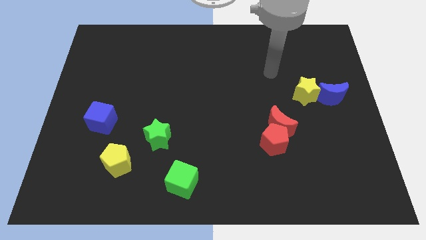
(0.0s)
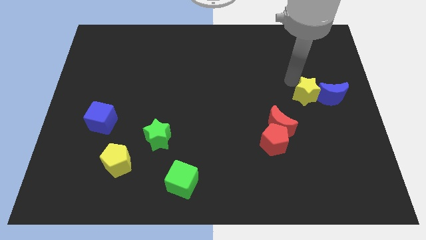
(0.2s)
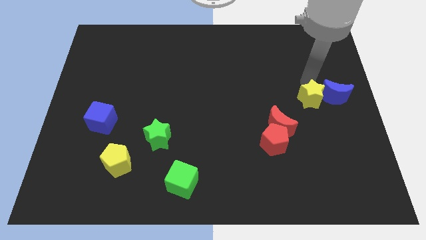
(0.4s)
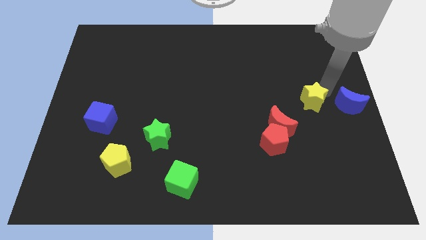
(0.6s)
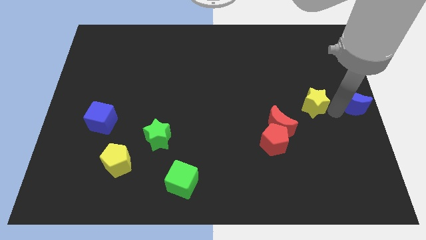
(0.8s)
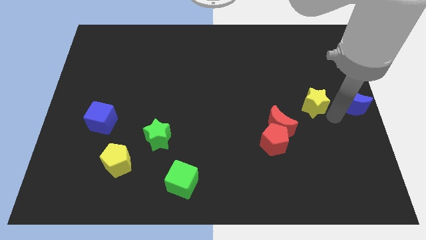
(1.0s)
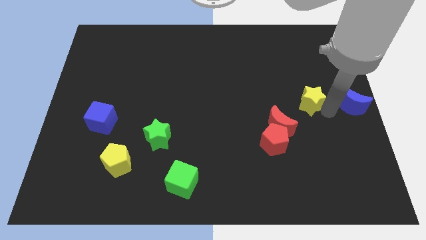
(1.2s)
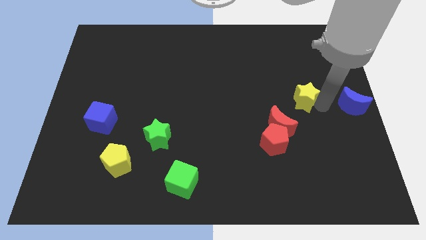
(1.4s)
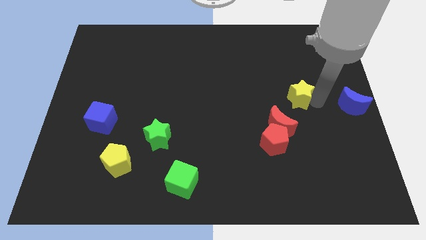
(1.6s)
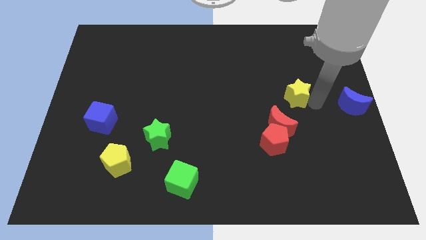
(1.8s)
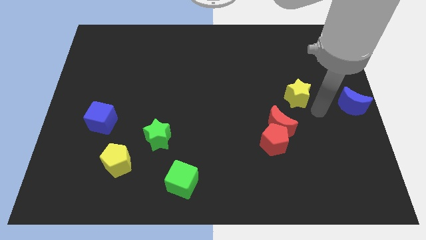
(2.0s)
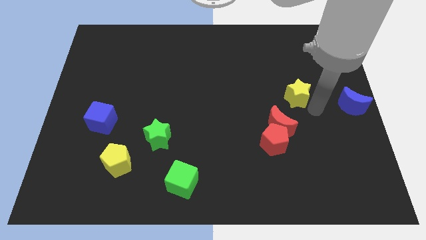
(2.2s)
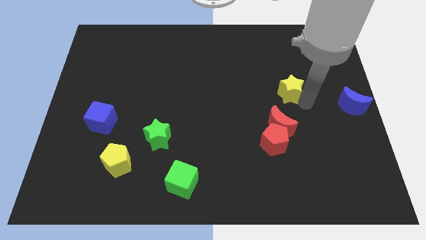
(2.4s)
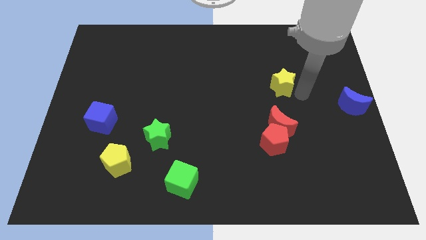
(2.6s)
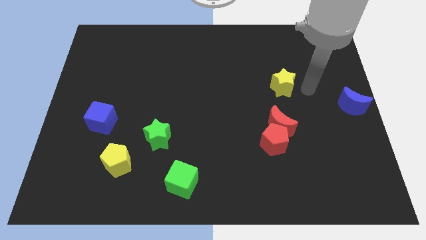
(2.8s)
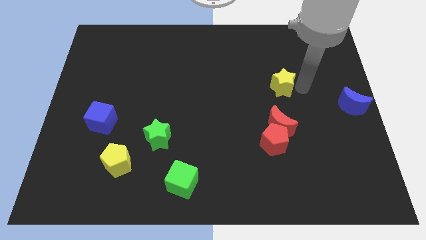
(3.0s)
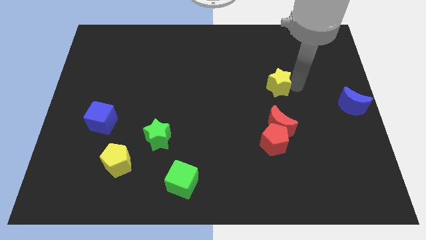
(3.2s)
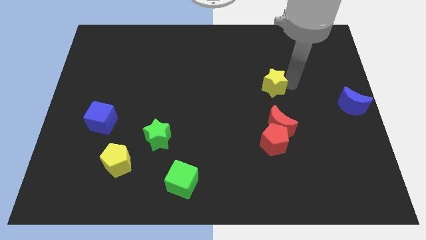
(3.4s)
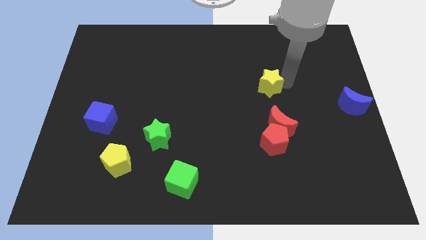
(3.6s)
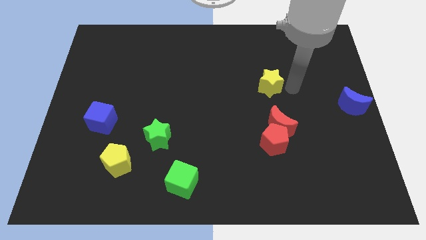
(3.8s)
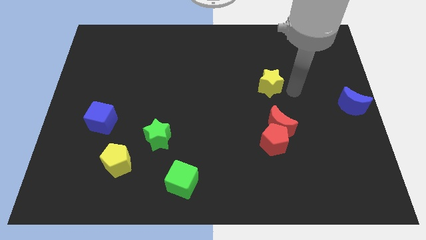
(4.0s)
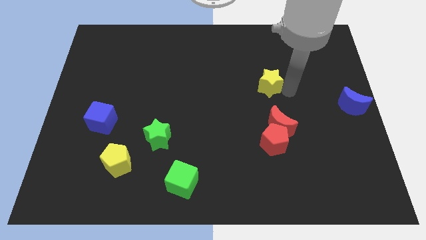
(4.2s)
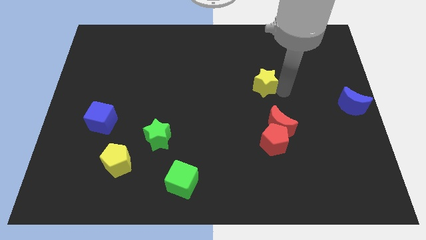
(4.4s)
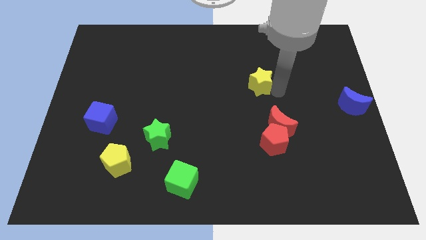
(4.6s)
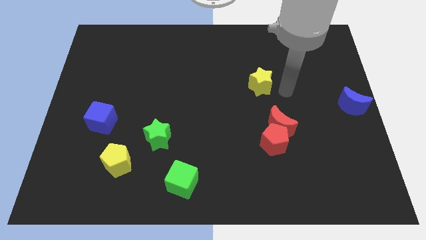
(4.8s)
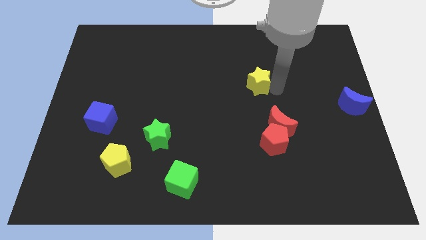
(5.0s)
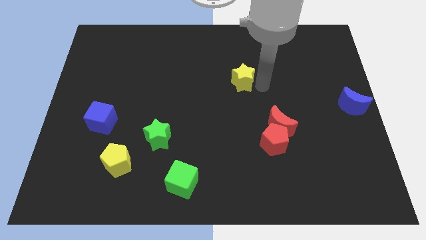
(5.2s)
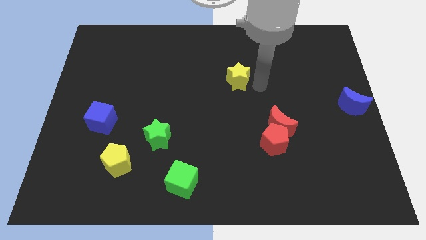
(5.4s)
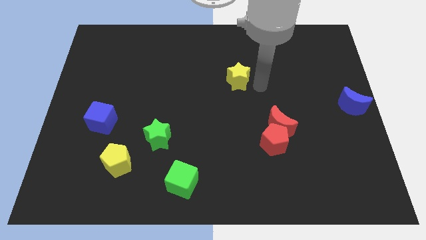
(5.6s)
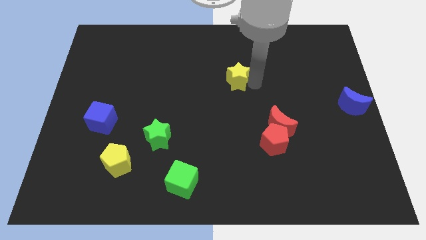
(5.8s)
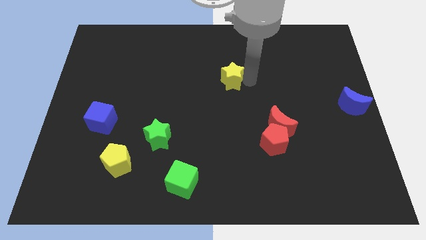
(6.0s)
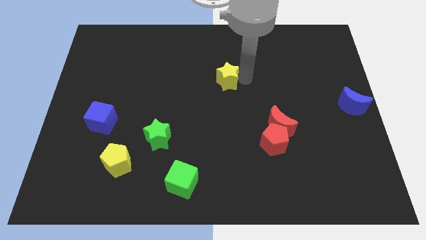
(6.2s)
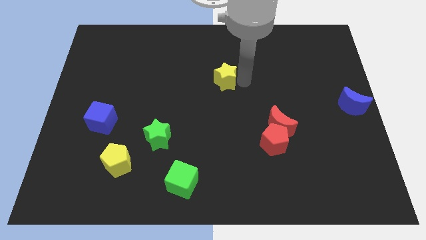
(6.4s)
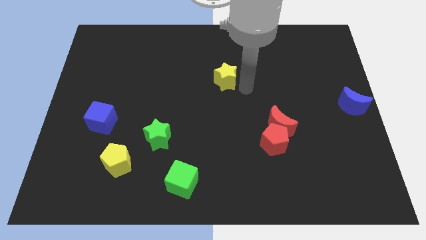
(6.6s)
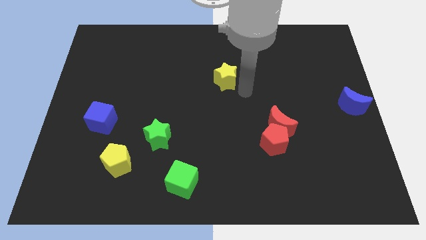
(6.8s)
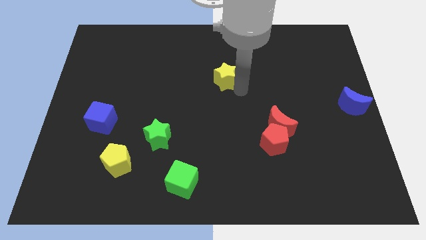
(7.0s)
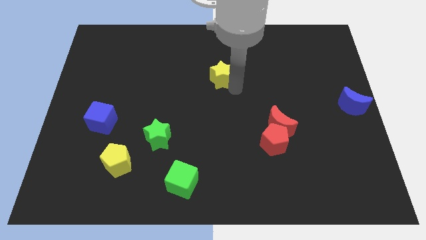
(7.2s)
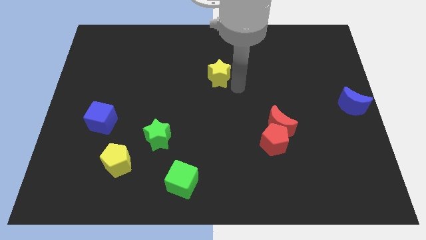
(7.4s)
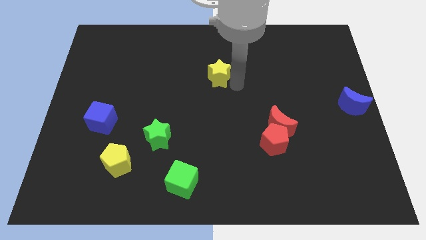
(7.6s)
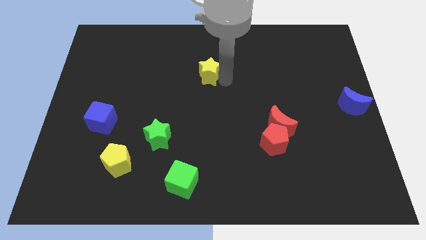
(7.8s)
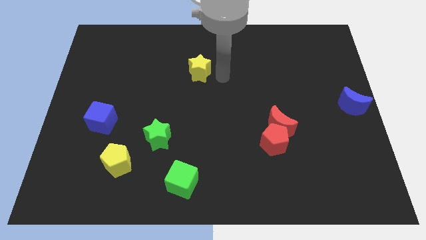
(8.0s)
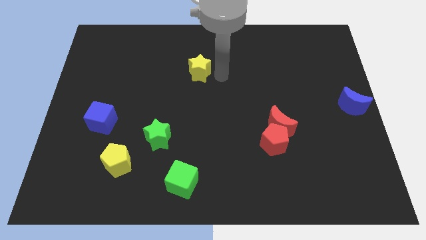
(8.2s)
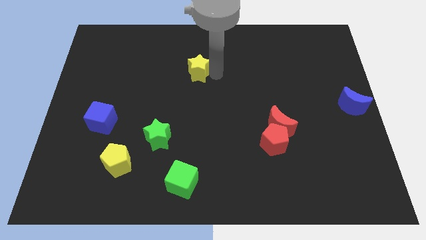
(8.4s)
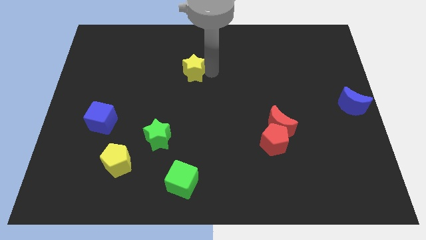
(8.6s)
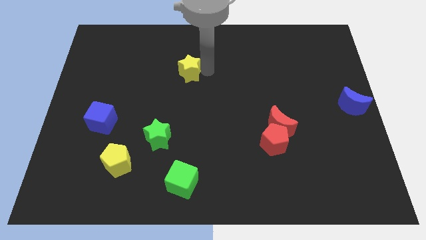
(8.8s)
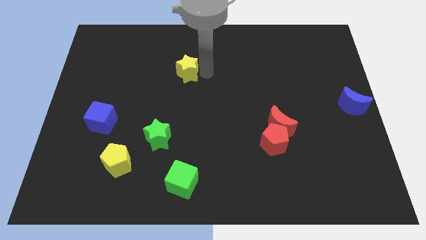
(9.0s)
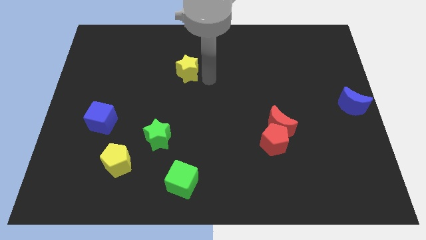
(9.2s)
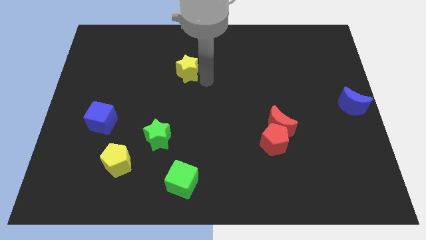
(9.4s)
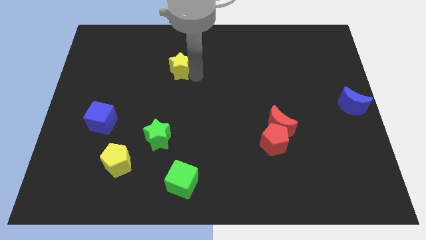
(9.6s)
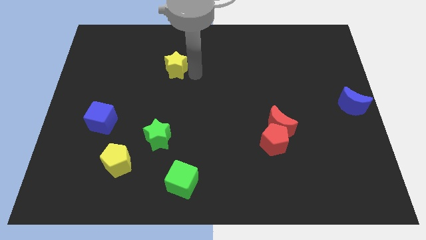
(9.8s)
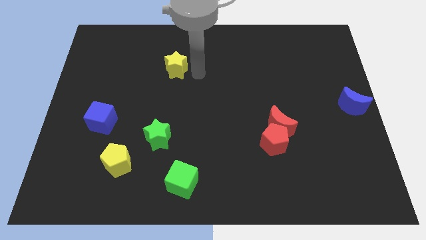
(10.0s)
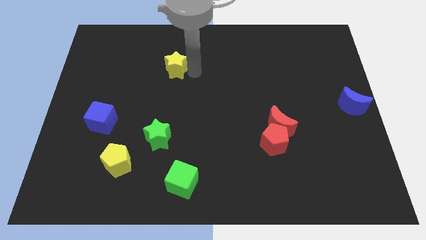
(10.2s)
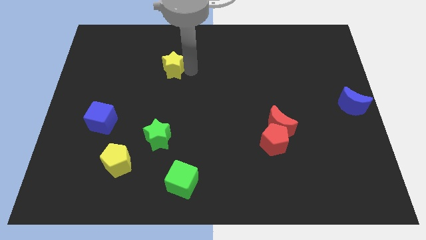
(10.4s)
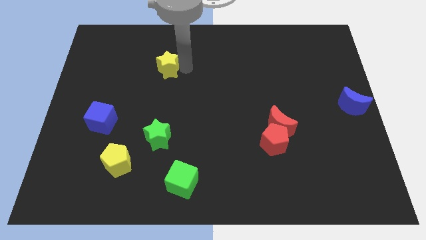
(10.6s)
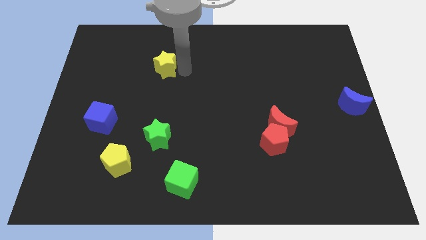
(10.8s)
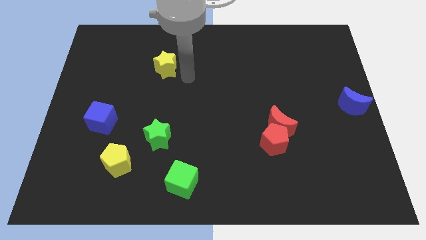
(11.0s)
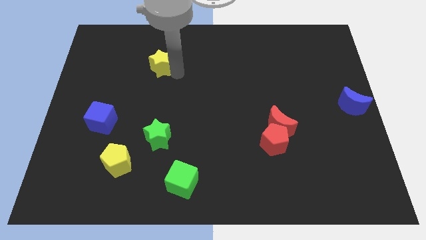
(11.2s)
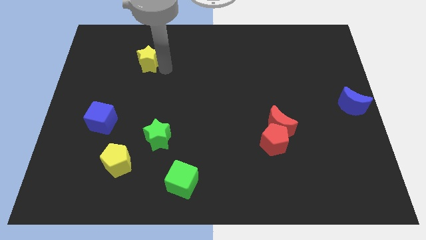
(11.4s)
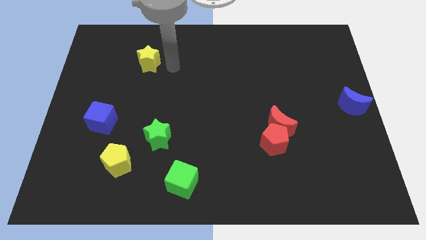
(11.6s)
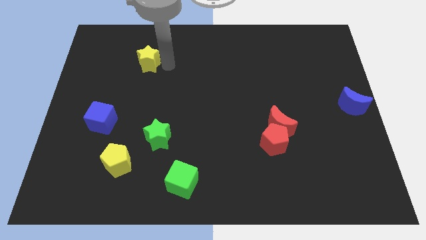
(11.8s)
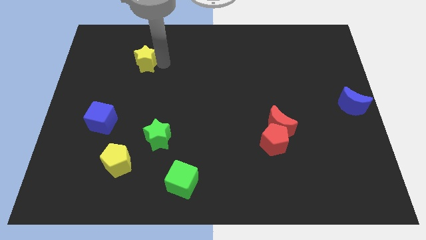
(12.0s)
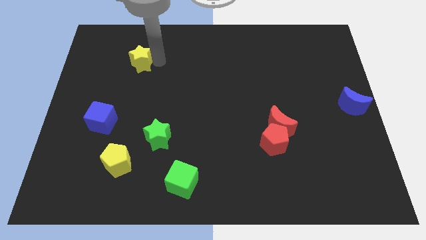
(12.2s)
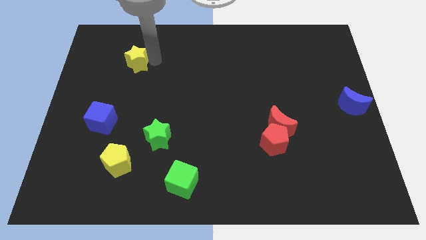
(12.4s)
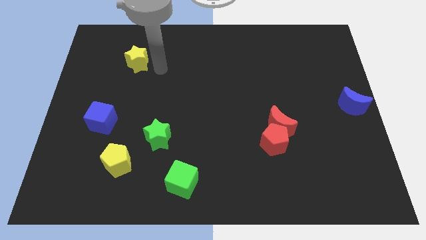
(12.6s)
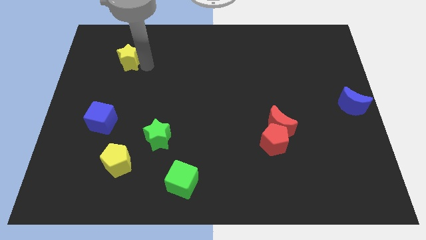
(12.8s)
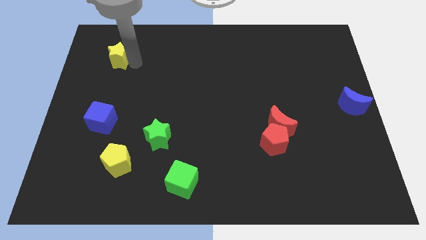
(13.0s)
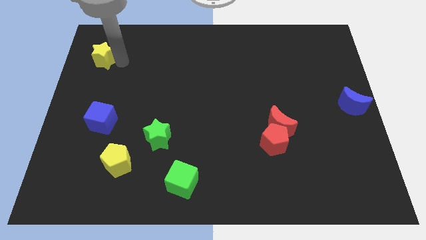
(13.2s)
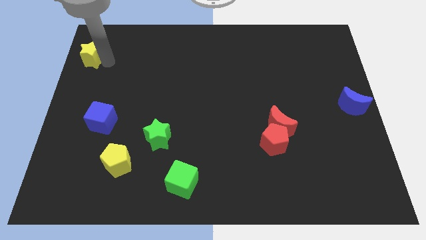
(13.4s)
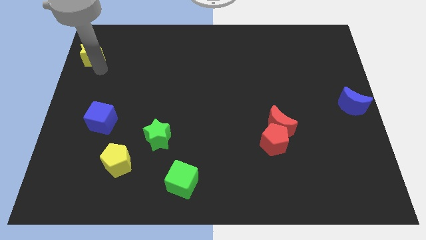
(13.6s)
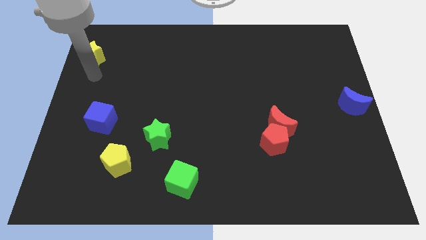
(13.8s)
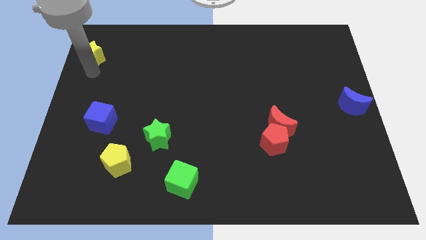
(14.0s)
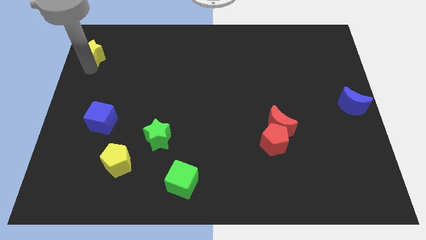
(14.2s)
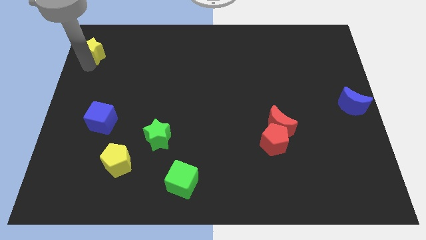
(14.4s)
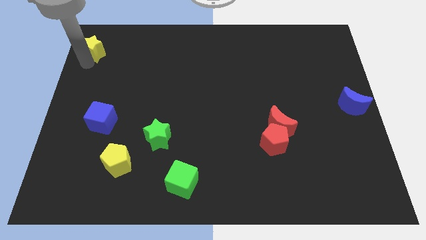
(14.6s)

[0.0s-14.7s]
slide the yellow star to the top left corner
